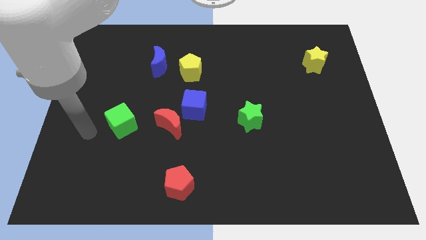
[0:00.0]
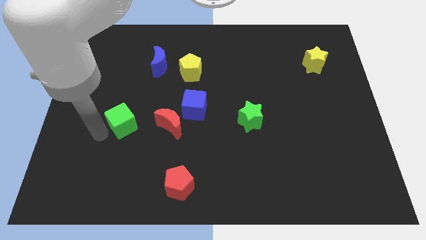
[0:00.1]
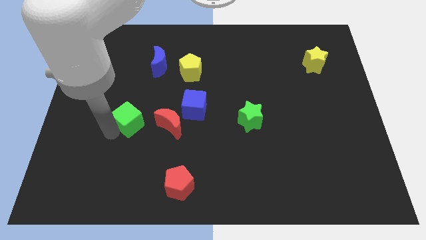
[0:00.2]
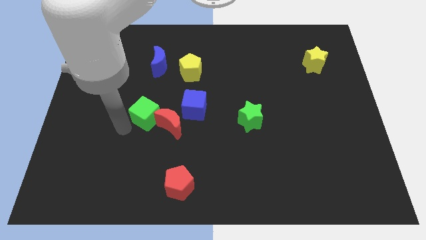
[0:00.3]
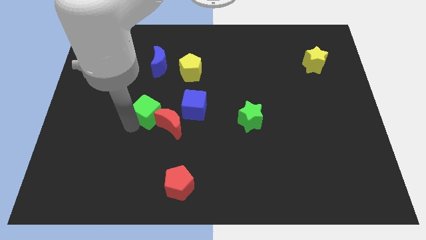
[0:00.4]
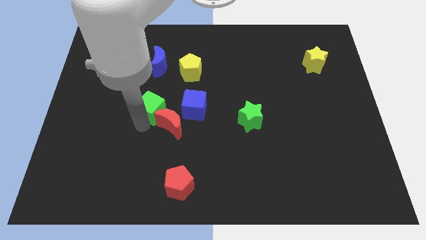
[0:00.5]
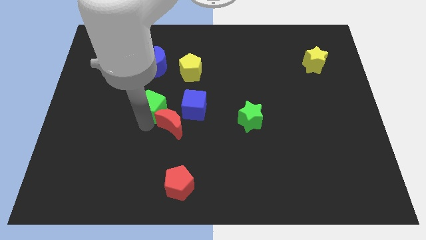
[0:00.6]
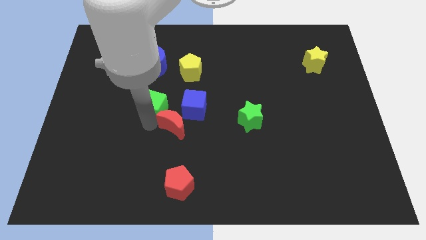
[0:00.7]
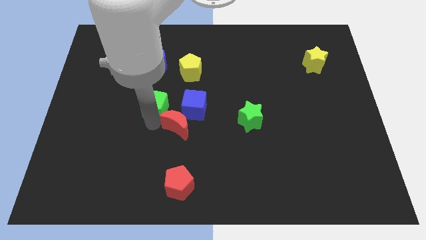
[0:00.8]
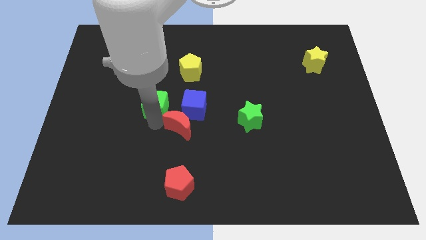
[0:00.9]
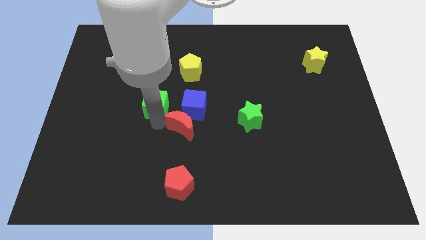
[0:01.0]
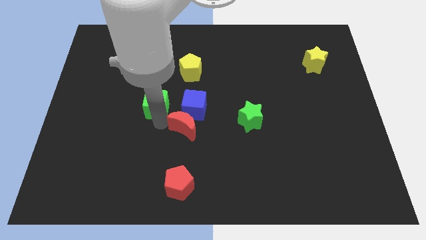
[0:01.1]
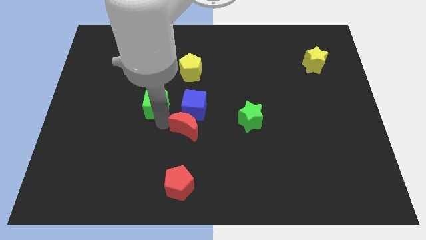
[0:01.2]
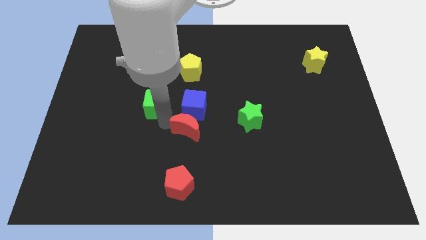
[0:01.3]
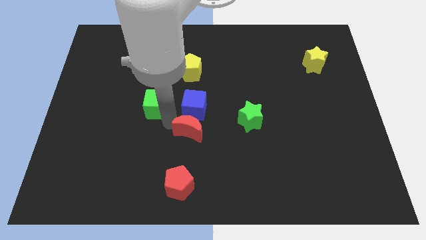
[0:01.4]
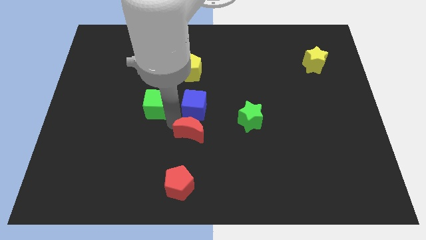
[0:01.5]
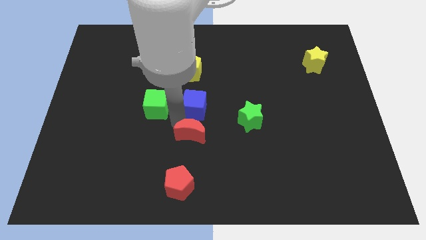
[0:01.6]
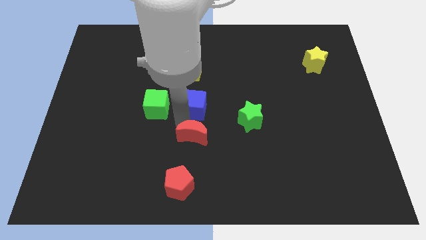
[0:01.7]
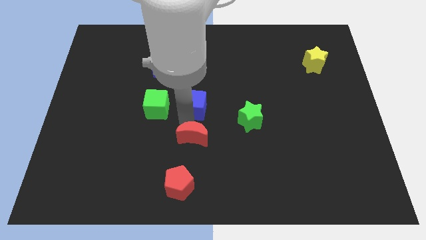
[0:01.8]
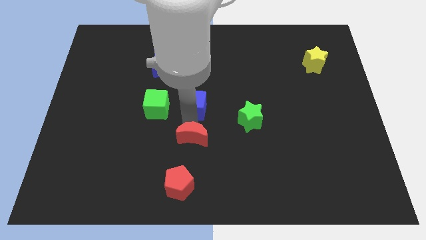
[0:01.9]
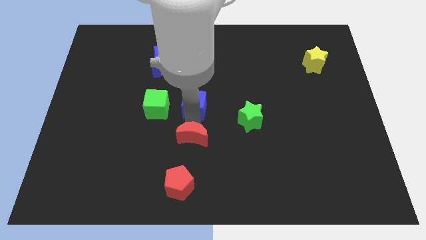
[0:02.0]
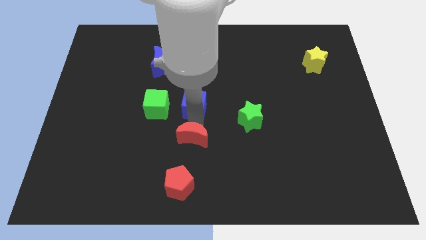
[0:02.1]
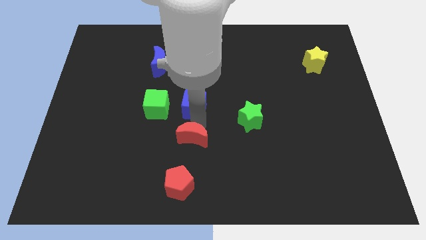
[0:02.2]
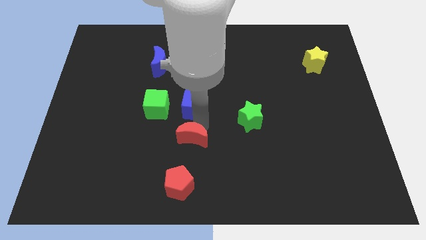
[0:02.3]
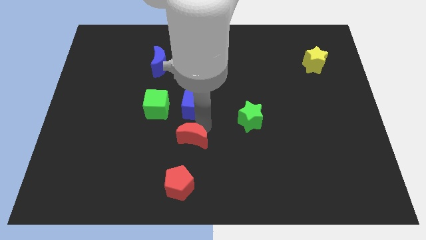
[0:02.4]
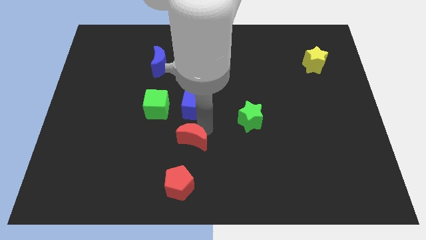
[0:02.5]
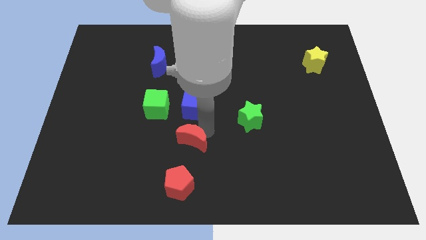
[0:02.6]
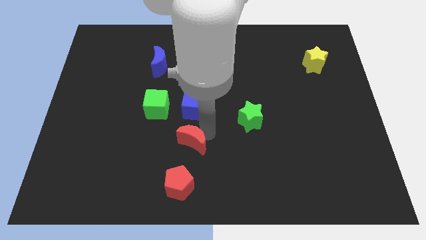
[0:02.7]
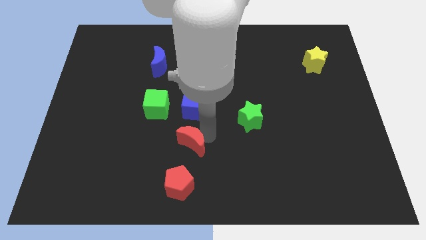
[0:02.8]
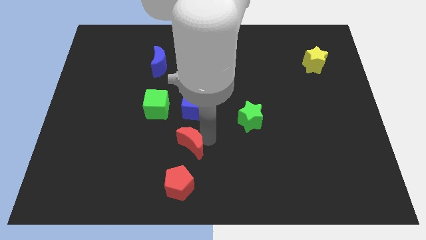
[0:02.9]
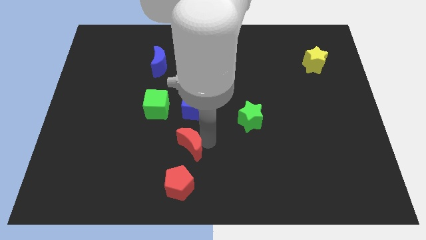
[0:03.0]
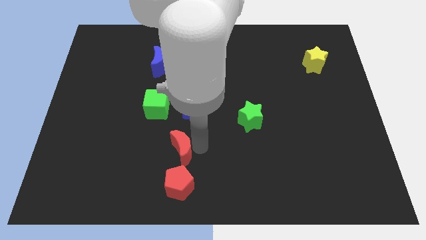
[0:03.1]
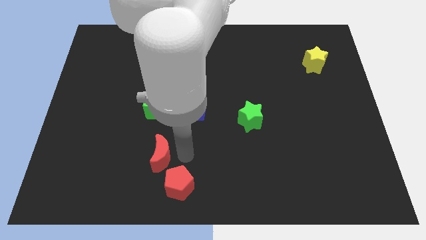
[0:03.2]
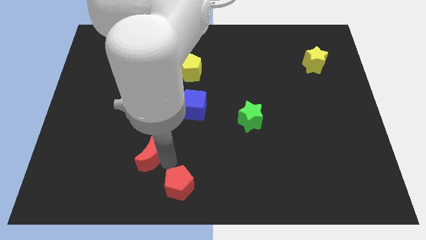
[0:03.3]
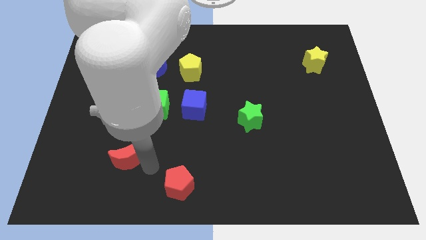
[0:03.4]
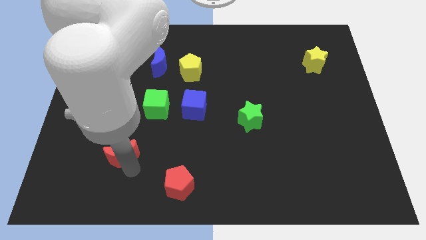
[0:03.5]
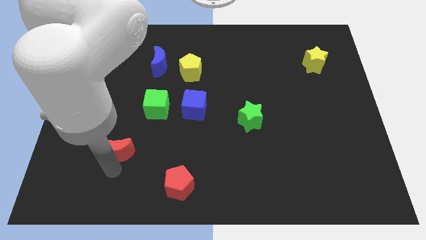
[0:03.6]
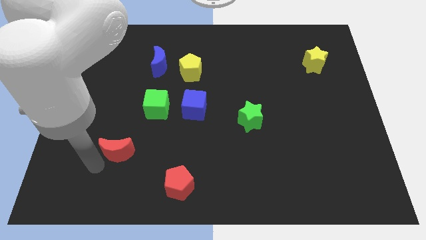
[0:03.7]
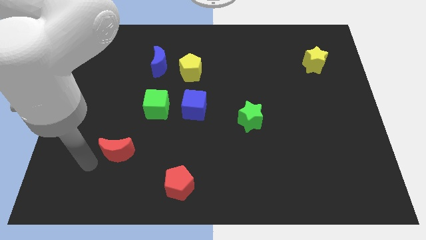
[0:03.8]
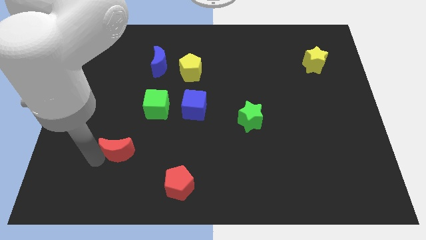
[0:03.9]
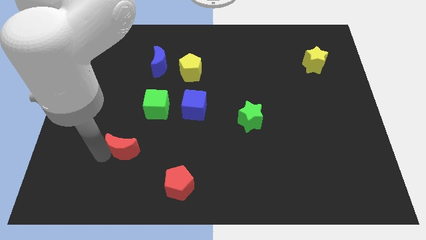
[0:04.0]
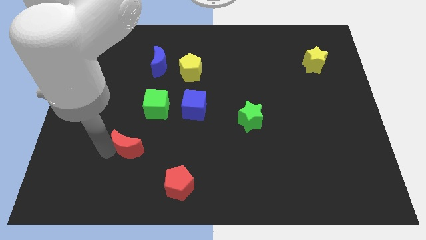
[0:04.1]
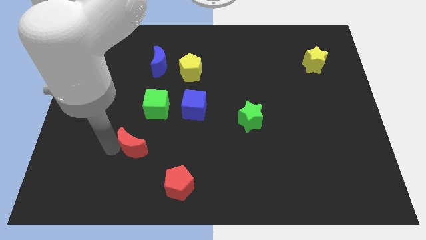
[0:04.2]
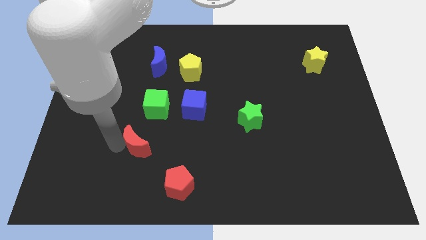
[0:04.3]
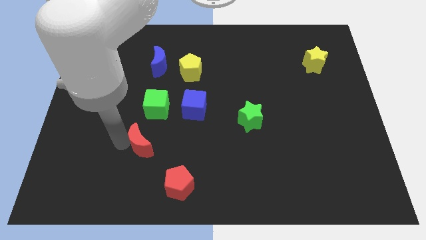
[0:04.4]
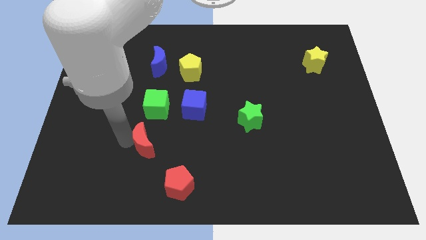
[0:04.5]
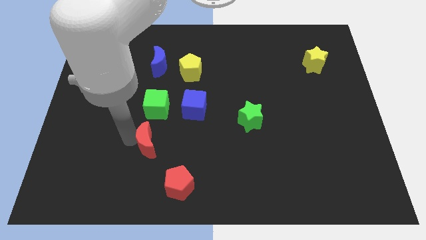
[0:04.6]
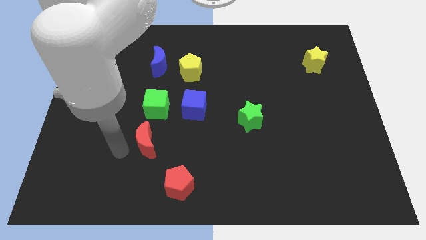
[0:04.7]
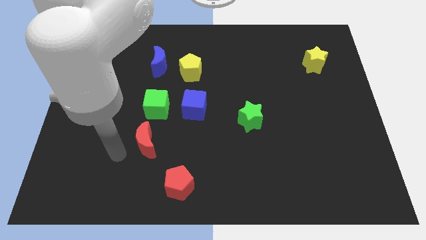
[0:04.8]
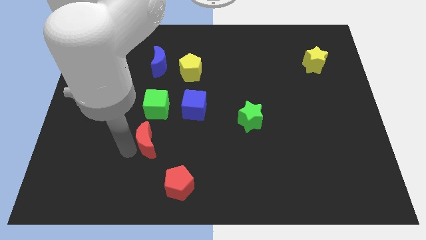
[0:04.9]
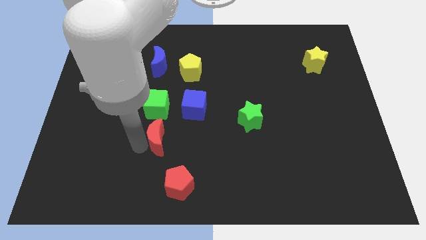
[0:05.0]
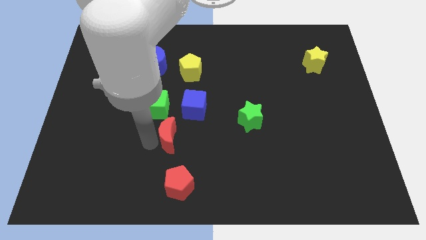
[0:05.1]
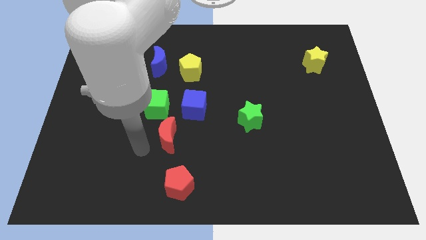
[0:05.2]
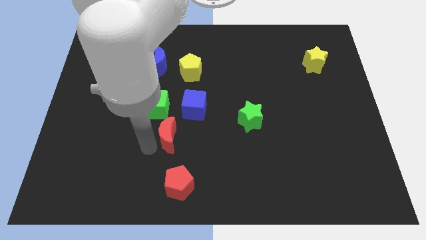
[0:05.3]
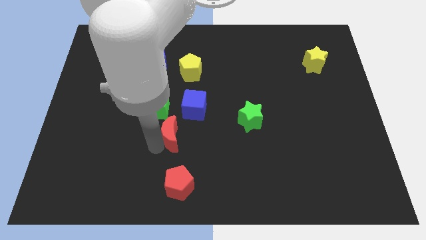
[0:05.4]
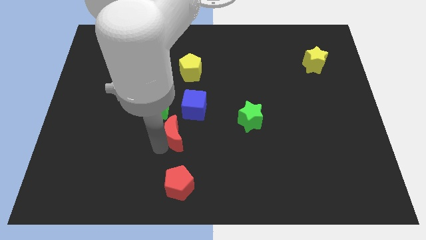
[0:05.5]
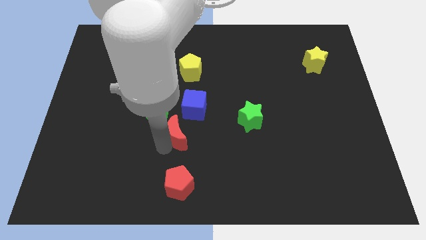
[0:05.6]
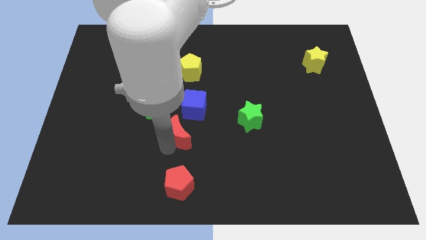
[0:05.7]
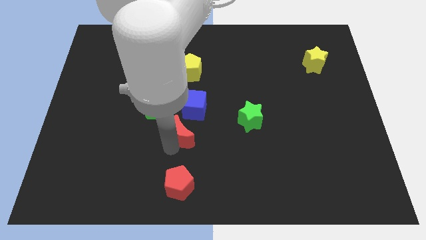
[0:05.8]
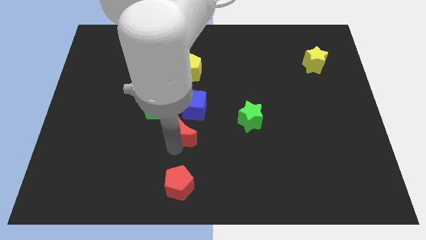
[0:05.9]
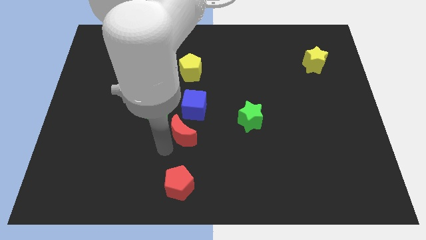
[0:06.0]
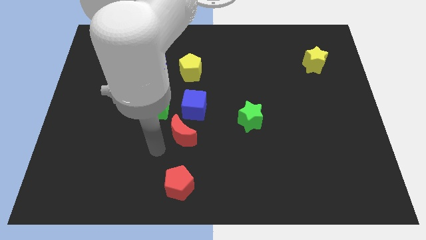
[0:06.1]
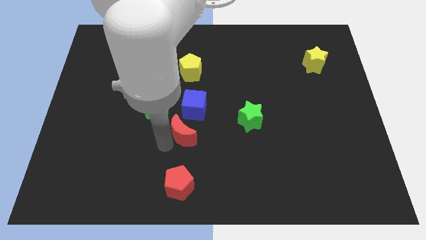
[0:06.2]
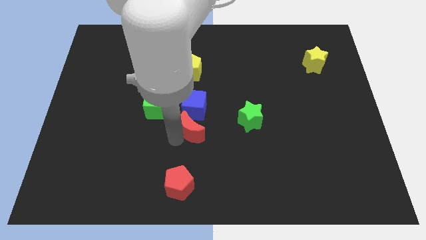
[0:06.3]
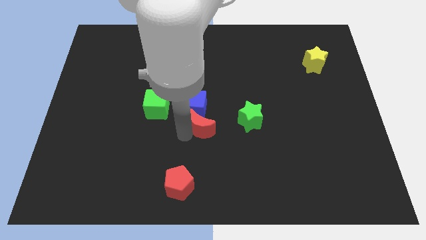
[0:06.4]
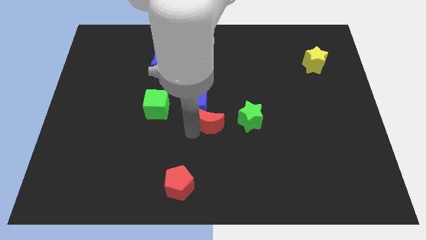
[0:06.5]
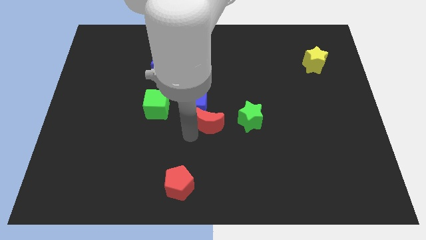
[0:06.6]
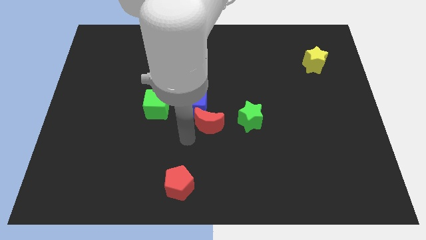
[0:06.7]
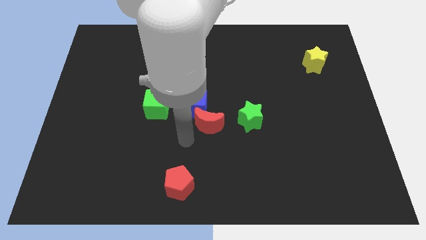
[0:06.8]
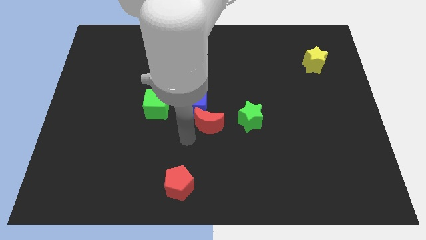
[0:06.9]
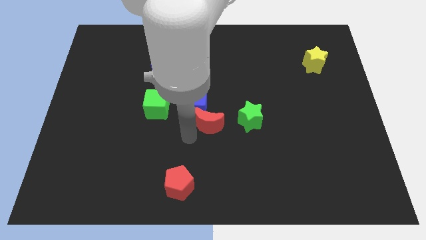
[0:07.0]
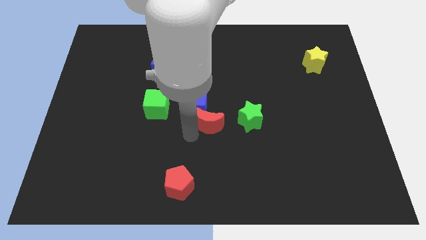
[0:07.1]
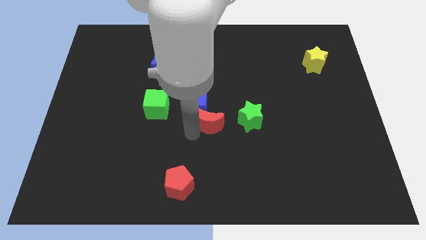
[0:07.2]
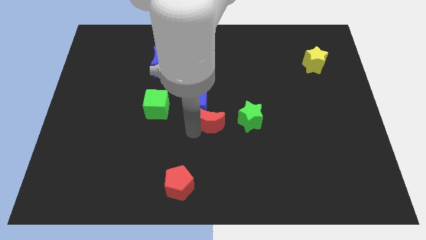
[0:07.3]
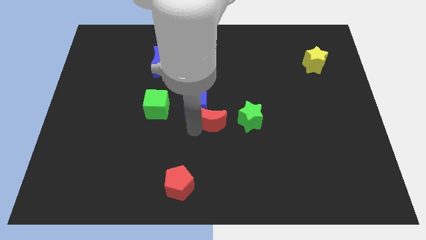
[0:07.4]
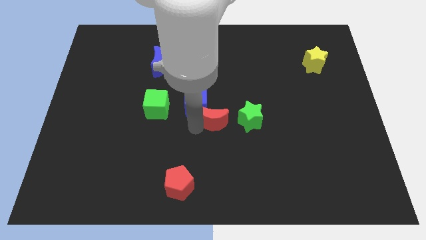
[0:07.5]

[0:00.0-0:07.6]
push the red moon to the right of the blue cube
